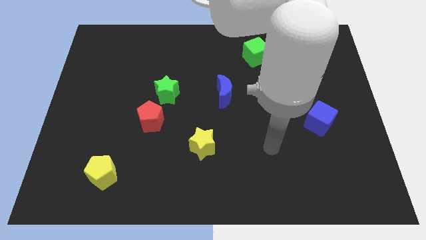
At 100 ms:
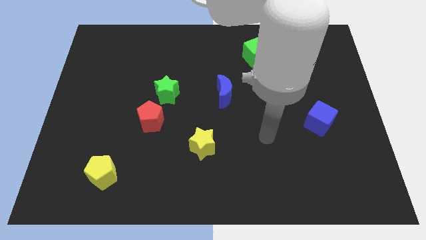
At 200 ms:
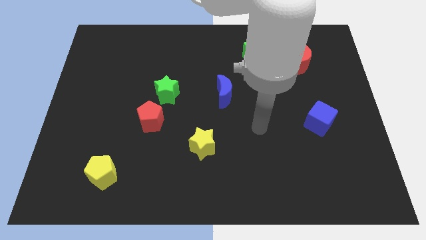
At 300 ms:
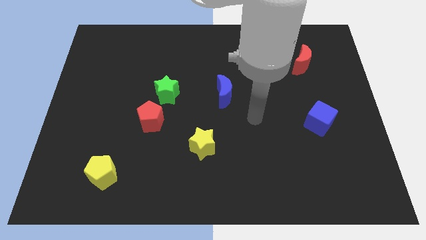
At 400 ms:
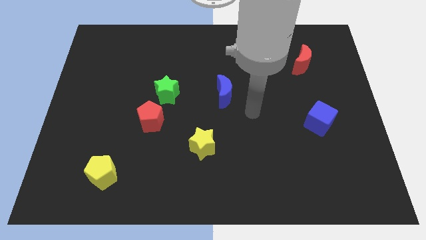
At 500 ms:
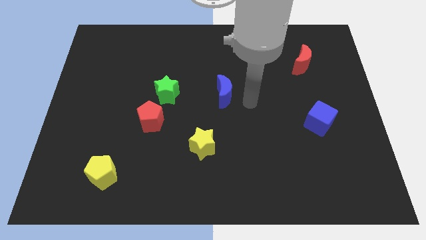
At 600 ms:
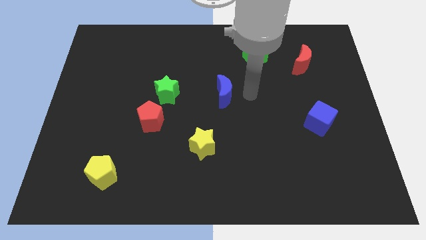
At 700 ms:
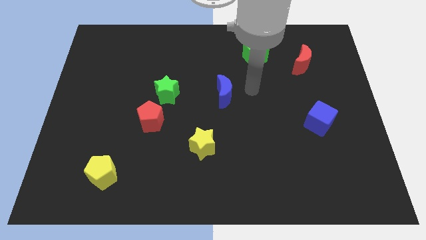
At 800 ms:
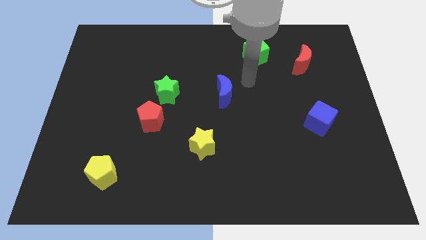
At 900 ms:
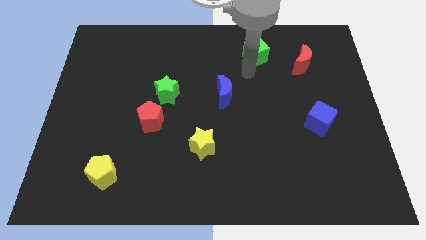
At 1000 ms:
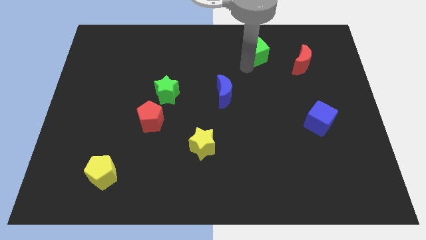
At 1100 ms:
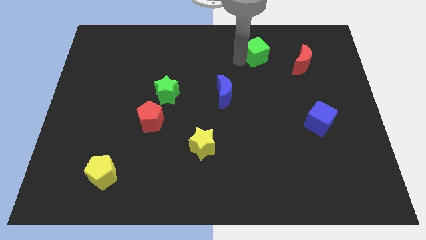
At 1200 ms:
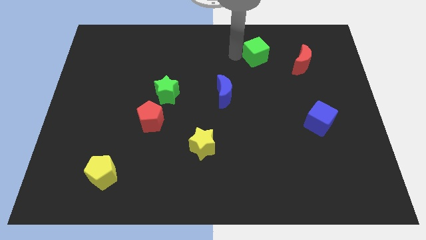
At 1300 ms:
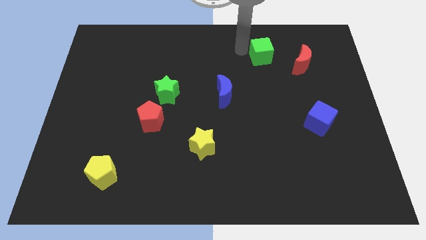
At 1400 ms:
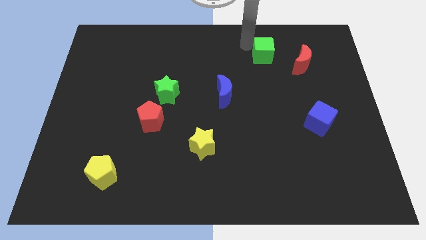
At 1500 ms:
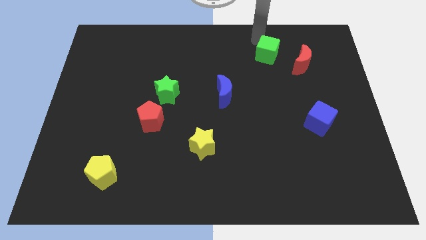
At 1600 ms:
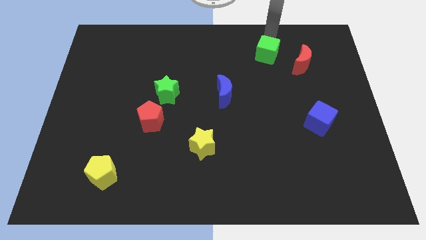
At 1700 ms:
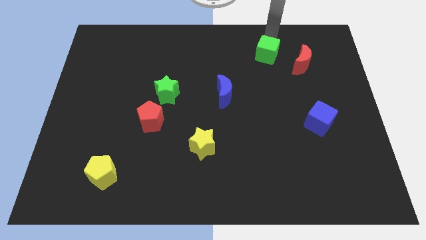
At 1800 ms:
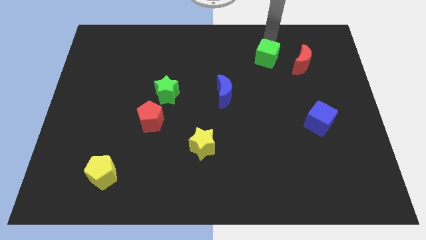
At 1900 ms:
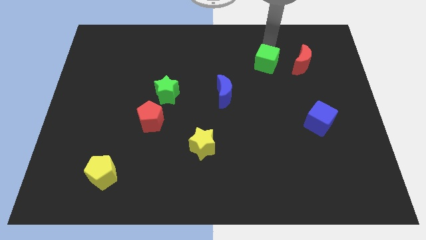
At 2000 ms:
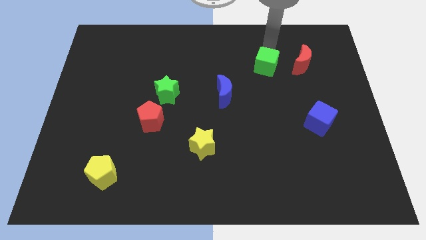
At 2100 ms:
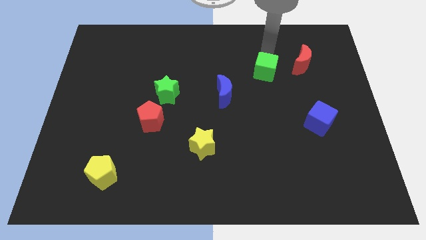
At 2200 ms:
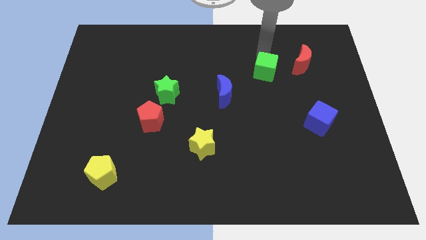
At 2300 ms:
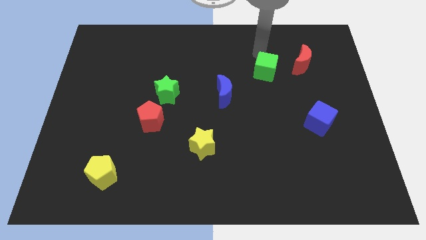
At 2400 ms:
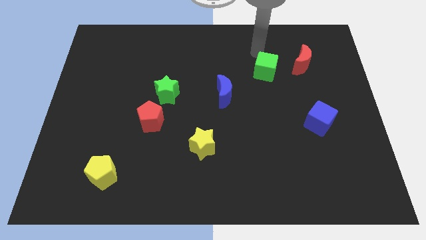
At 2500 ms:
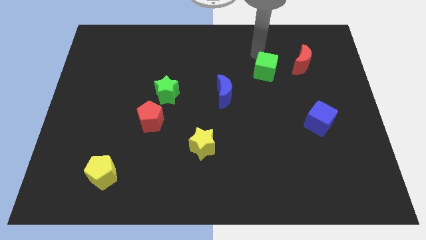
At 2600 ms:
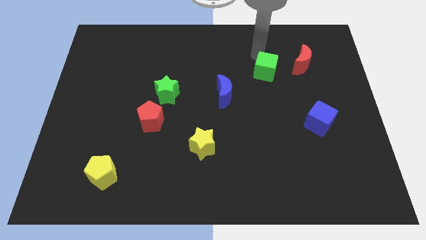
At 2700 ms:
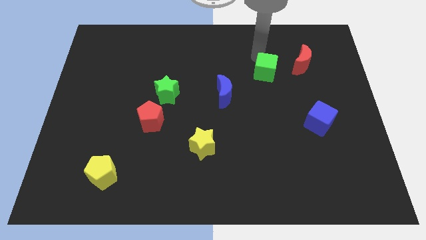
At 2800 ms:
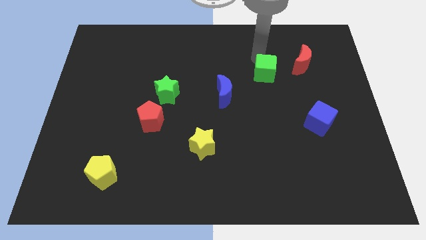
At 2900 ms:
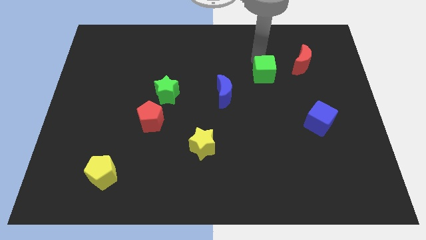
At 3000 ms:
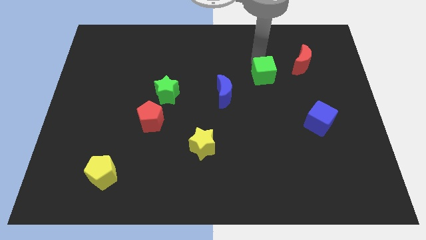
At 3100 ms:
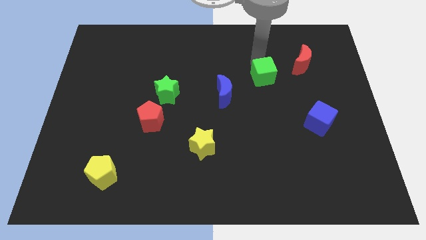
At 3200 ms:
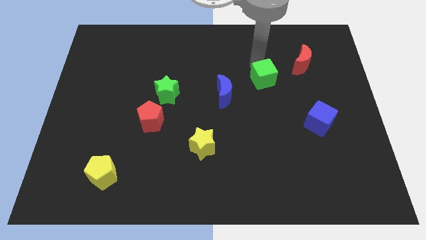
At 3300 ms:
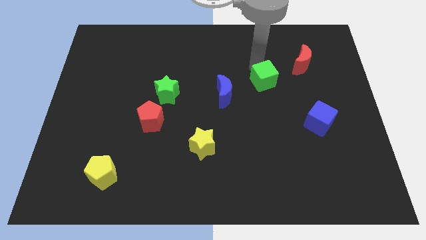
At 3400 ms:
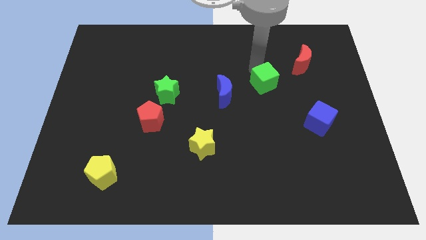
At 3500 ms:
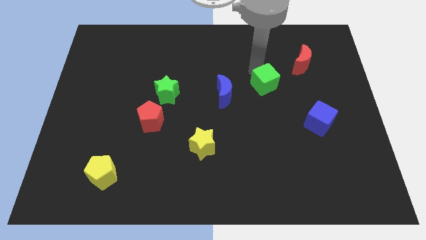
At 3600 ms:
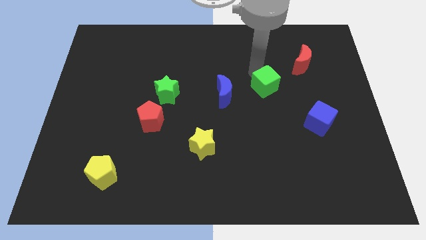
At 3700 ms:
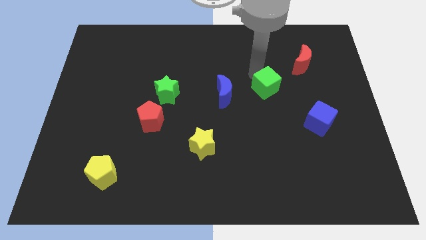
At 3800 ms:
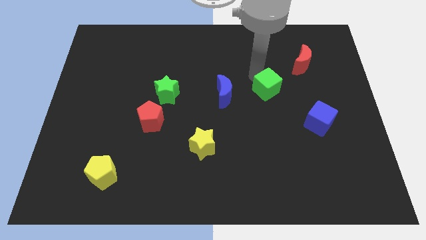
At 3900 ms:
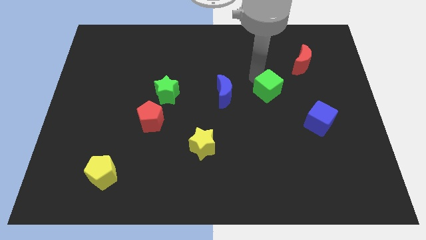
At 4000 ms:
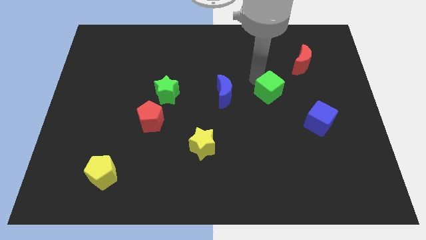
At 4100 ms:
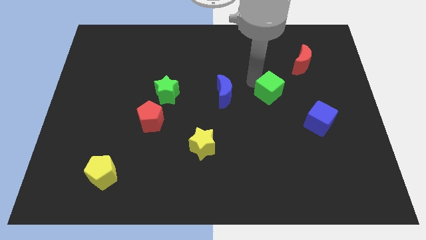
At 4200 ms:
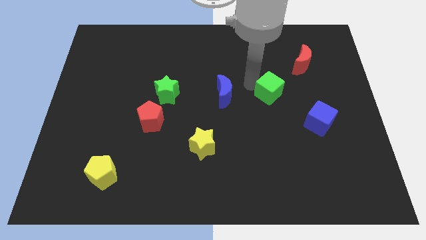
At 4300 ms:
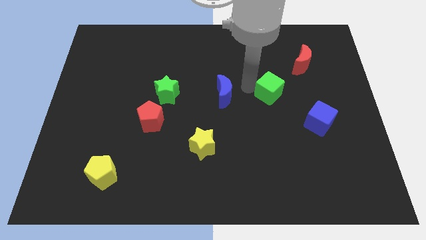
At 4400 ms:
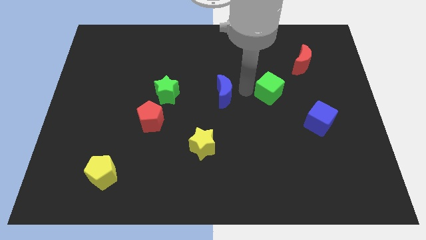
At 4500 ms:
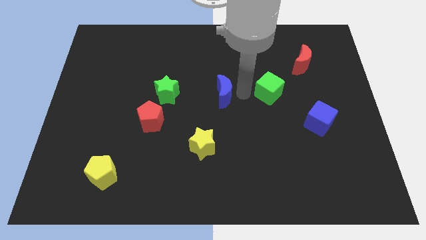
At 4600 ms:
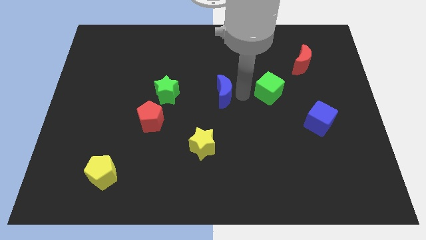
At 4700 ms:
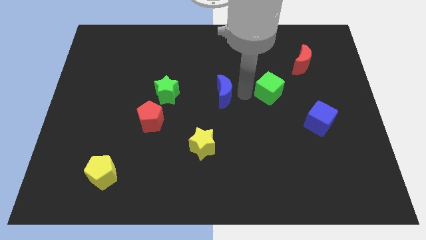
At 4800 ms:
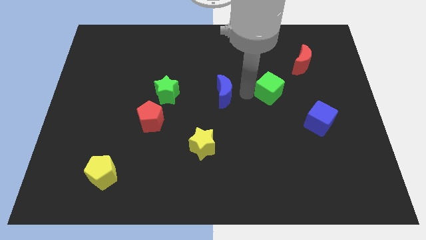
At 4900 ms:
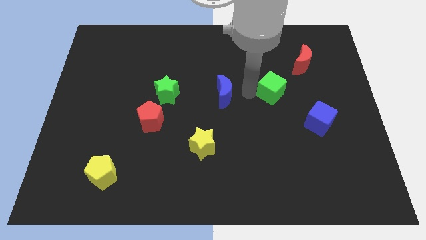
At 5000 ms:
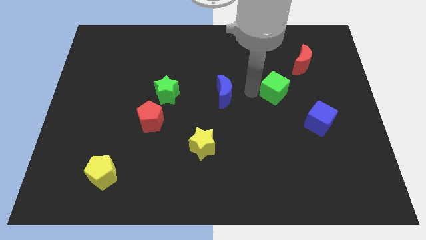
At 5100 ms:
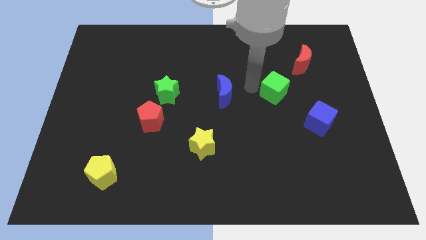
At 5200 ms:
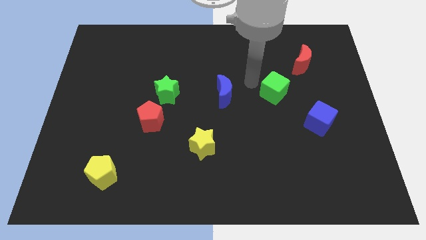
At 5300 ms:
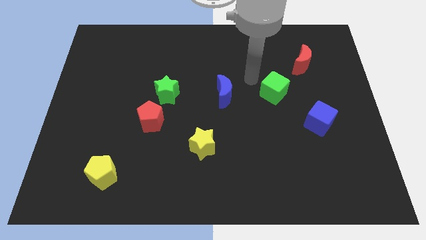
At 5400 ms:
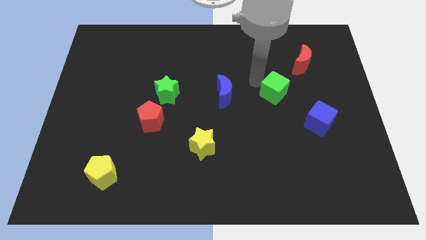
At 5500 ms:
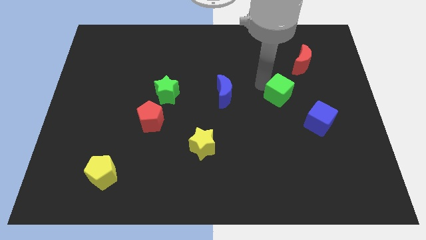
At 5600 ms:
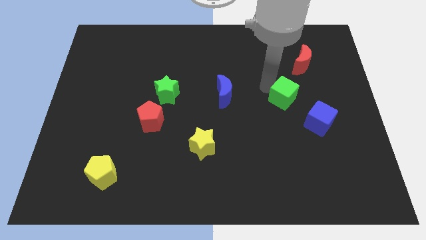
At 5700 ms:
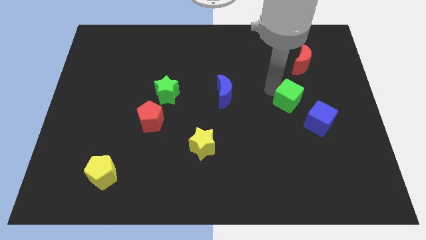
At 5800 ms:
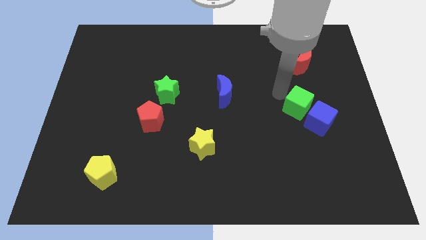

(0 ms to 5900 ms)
move the green cube to the blue cube

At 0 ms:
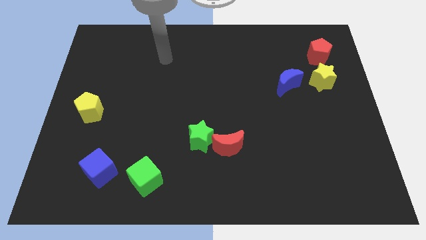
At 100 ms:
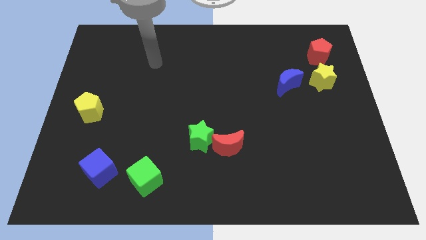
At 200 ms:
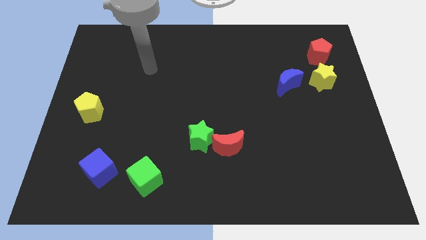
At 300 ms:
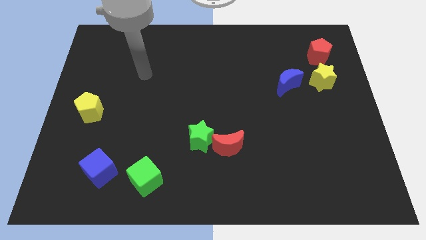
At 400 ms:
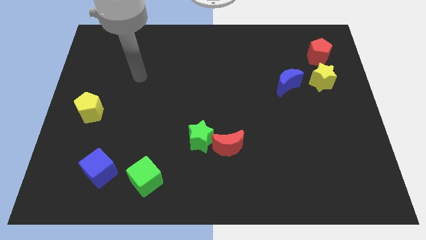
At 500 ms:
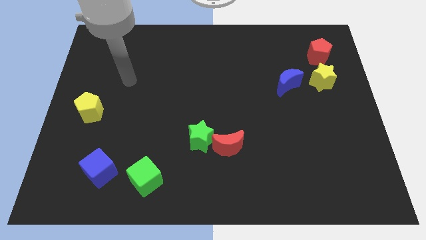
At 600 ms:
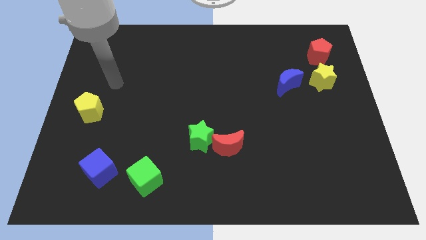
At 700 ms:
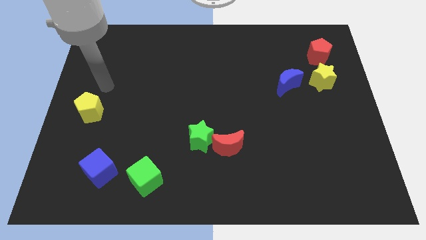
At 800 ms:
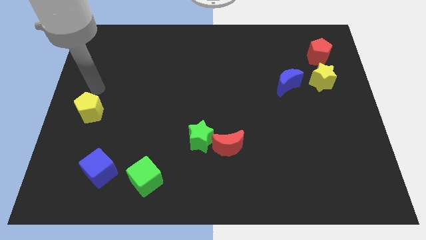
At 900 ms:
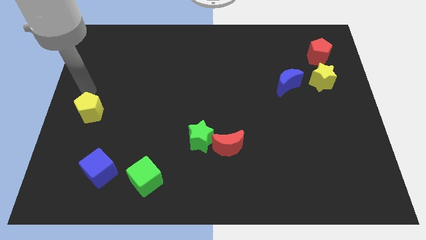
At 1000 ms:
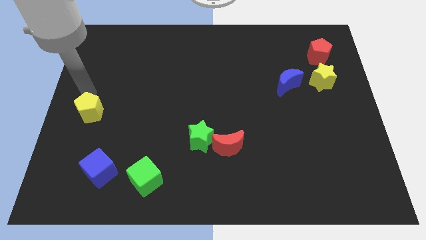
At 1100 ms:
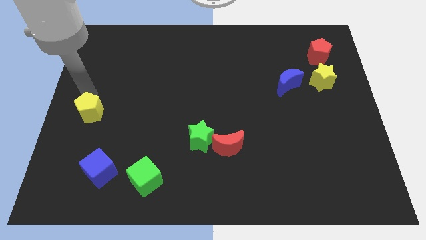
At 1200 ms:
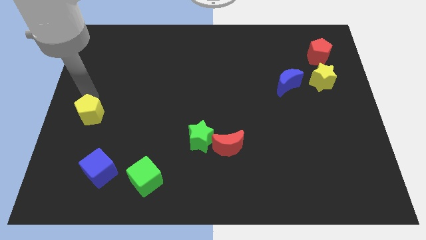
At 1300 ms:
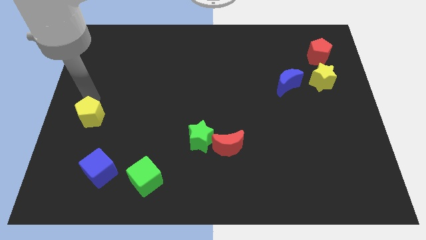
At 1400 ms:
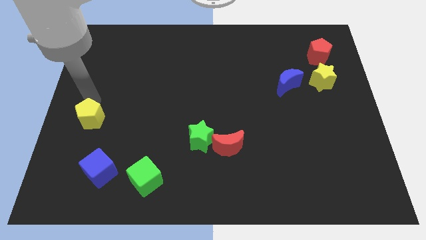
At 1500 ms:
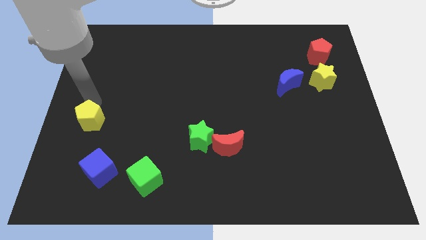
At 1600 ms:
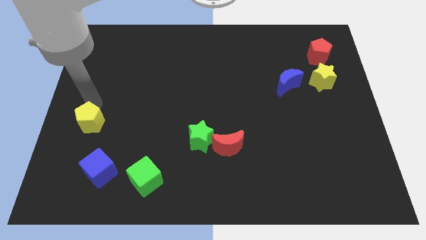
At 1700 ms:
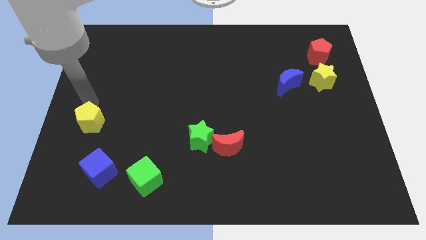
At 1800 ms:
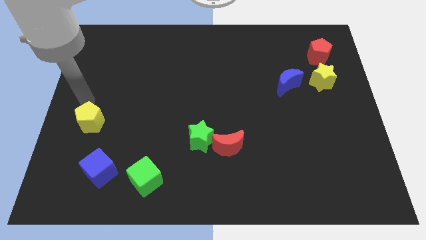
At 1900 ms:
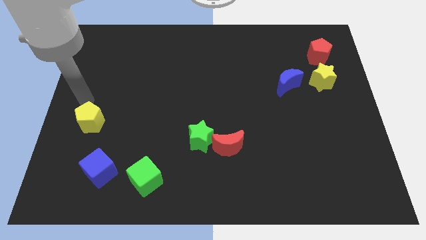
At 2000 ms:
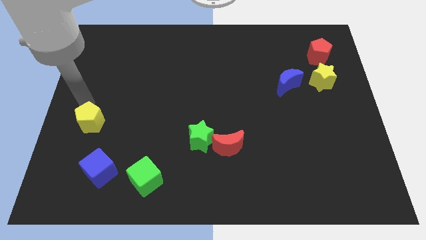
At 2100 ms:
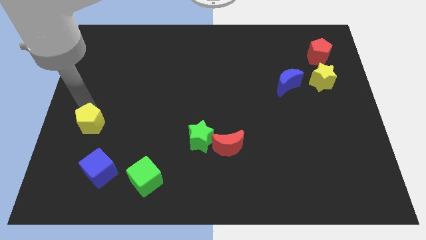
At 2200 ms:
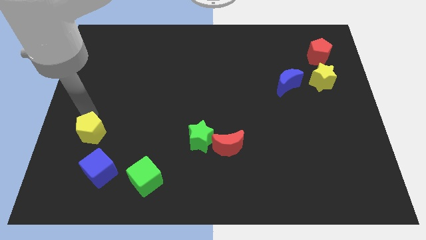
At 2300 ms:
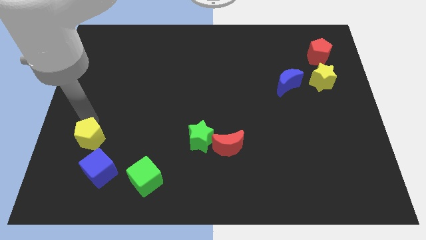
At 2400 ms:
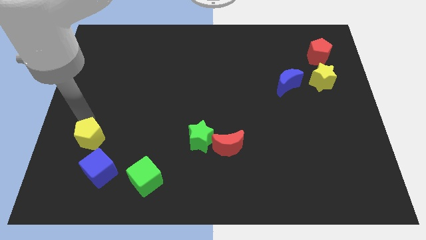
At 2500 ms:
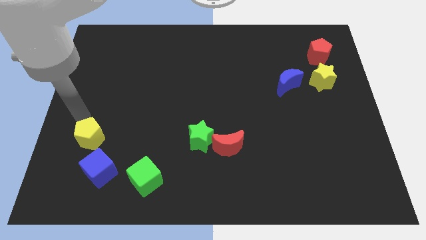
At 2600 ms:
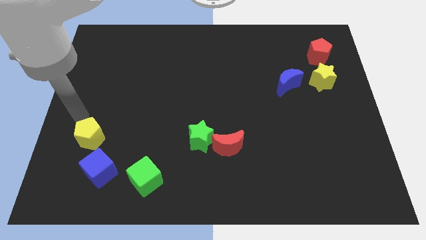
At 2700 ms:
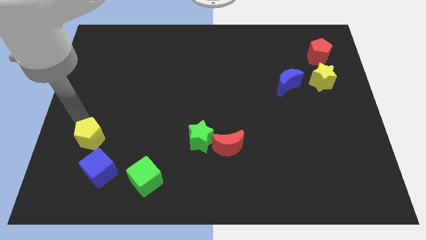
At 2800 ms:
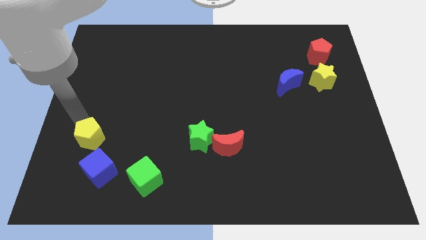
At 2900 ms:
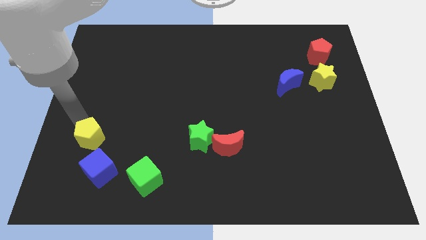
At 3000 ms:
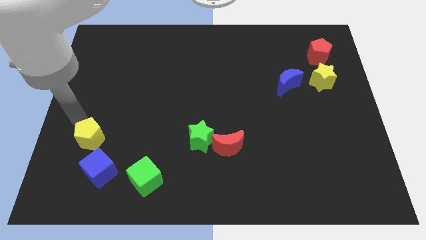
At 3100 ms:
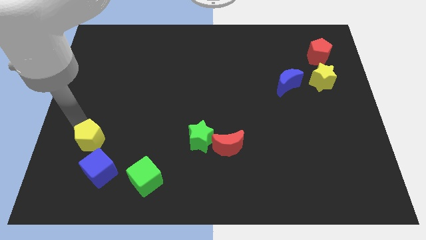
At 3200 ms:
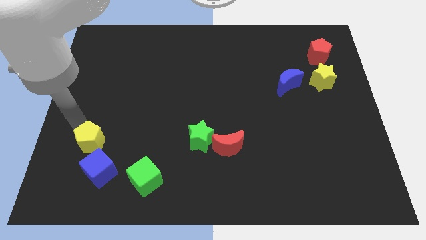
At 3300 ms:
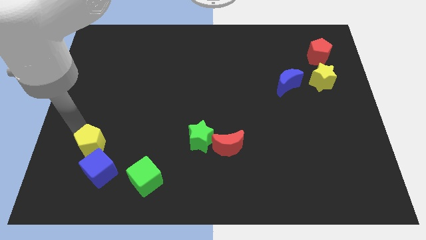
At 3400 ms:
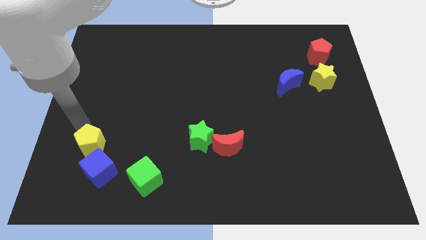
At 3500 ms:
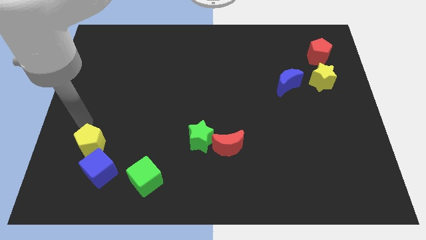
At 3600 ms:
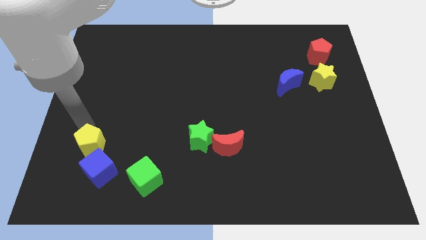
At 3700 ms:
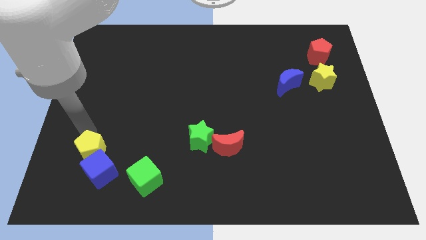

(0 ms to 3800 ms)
slide the yellow pentagon close to the blue cube
